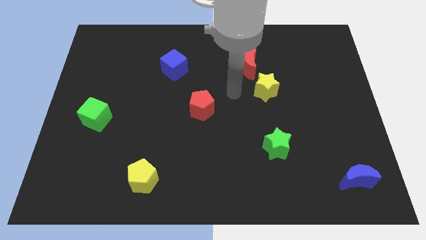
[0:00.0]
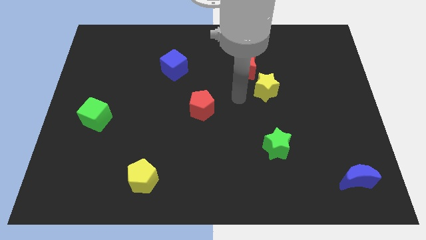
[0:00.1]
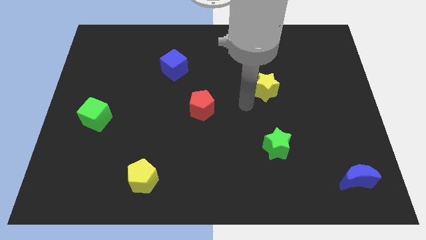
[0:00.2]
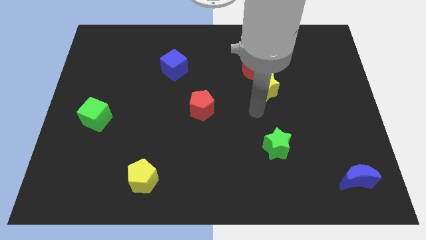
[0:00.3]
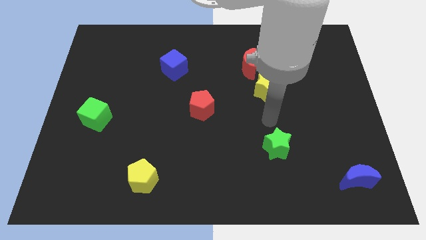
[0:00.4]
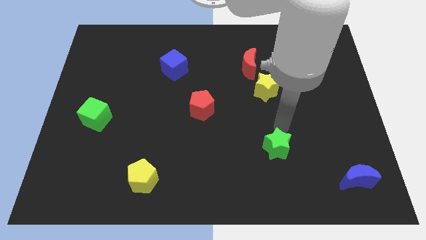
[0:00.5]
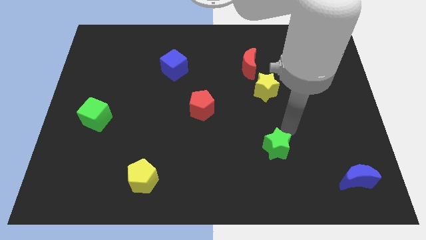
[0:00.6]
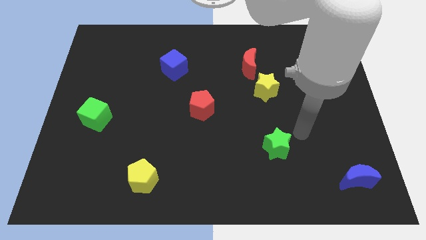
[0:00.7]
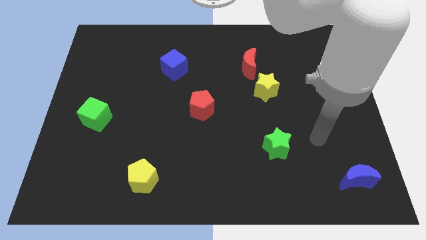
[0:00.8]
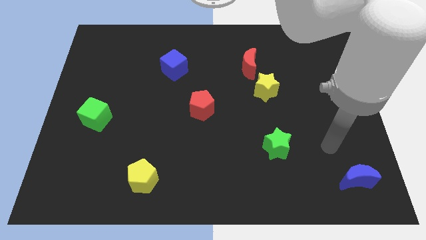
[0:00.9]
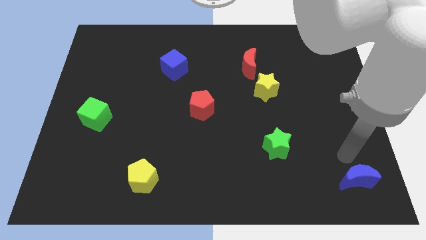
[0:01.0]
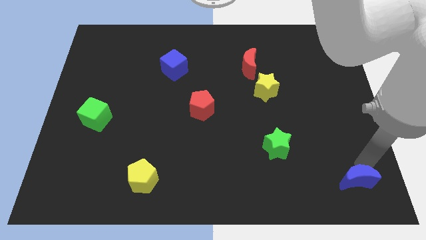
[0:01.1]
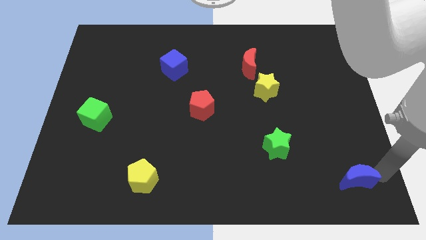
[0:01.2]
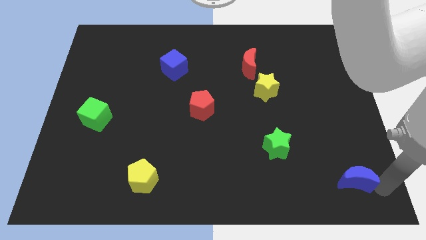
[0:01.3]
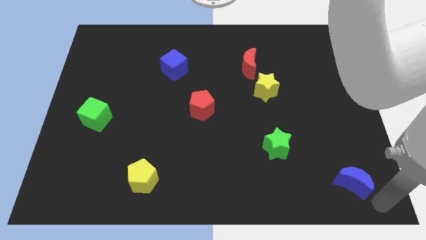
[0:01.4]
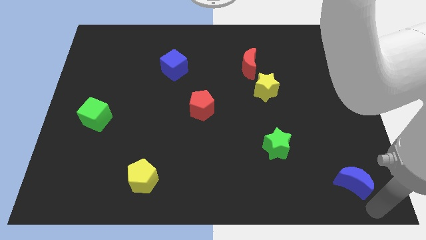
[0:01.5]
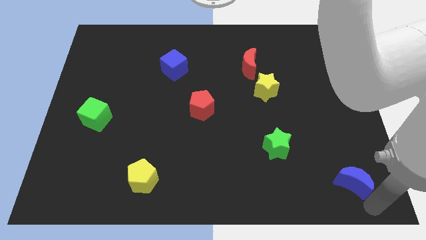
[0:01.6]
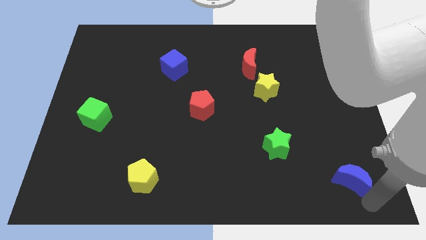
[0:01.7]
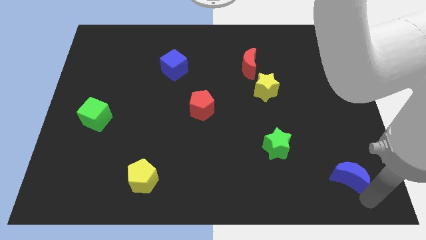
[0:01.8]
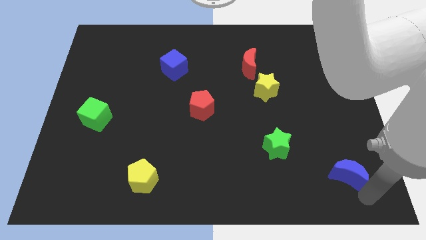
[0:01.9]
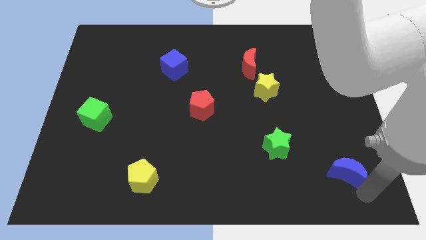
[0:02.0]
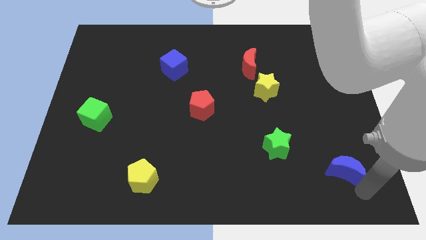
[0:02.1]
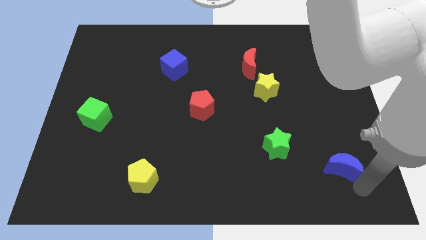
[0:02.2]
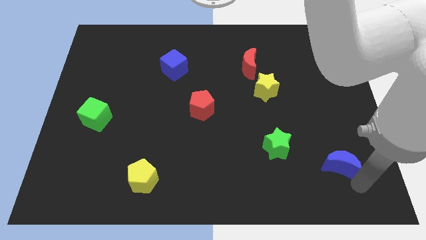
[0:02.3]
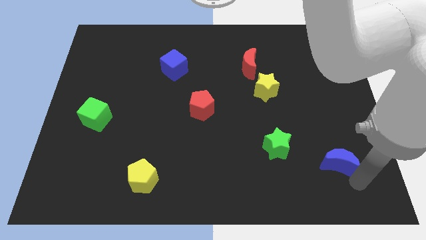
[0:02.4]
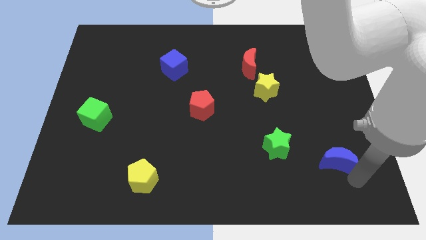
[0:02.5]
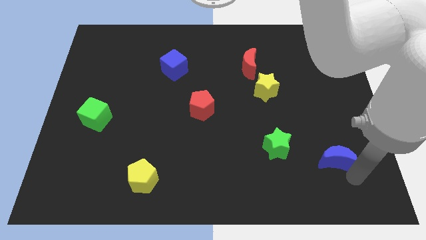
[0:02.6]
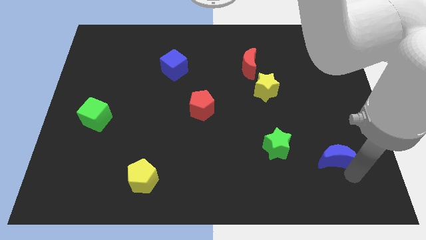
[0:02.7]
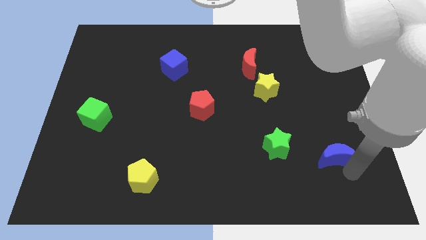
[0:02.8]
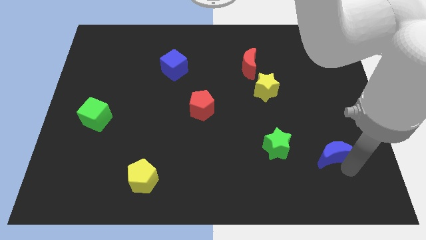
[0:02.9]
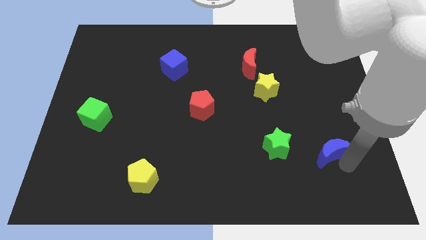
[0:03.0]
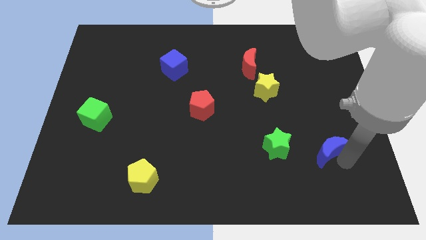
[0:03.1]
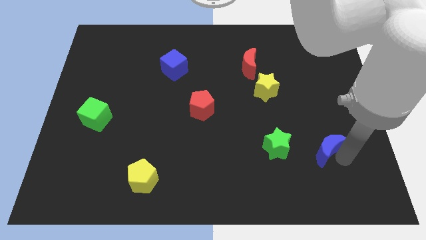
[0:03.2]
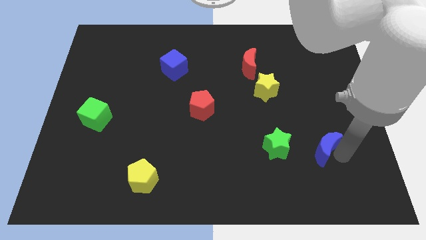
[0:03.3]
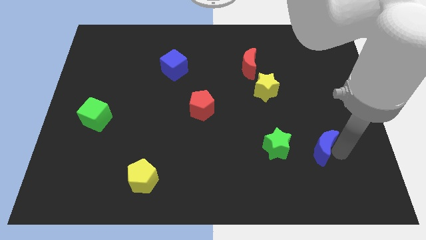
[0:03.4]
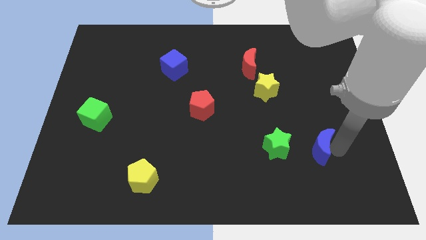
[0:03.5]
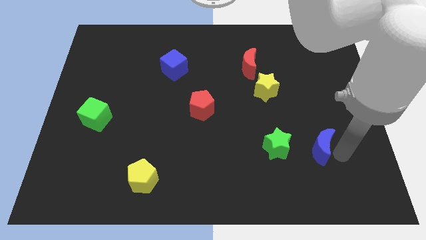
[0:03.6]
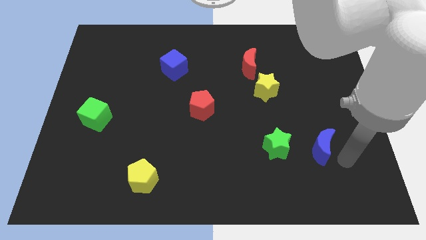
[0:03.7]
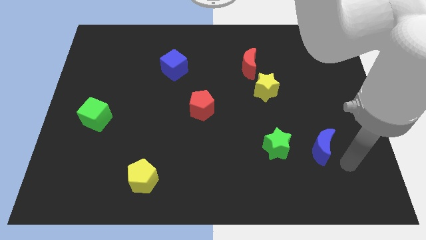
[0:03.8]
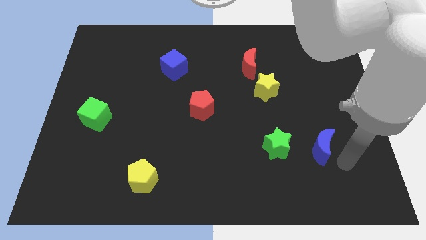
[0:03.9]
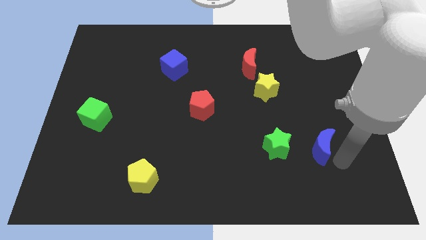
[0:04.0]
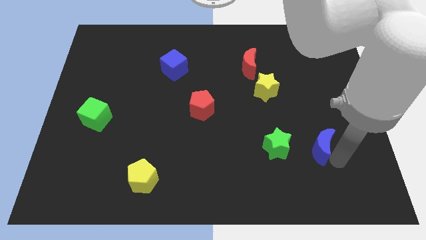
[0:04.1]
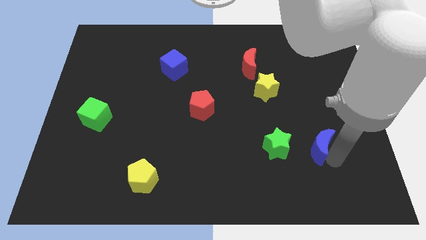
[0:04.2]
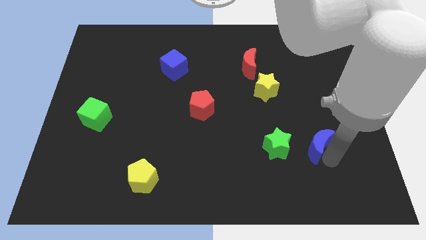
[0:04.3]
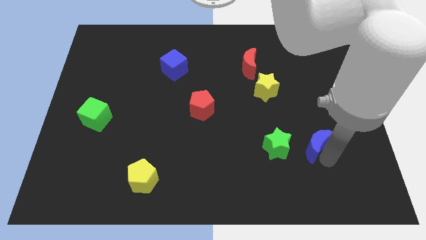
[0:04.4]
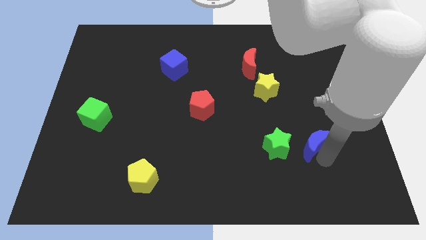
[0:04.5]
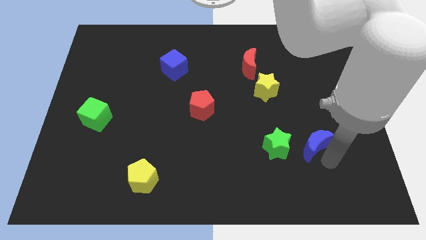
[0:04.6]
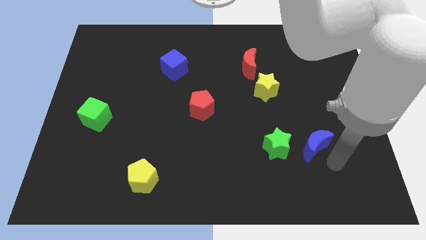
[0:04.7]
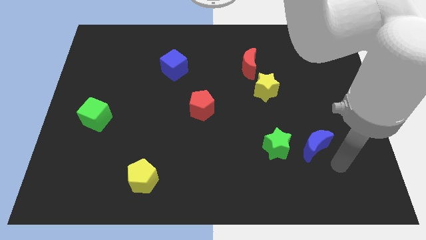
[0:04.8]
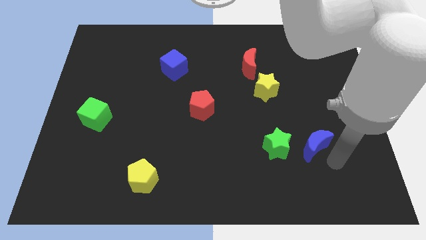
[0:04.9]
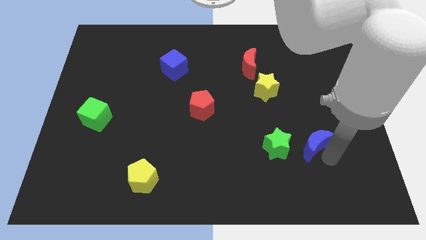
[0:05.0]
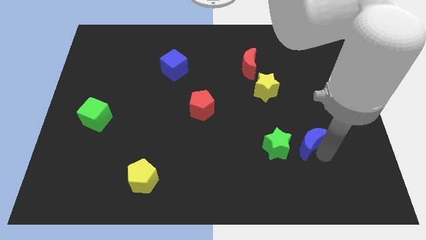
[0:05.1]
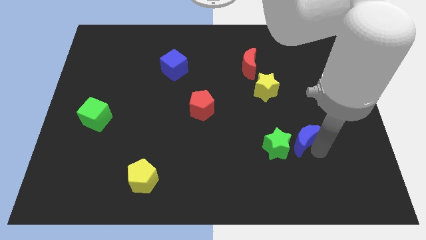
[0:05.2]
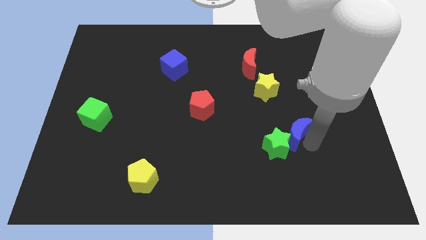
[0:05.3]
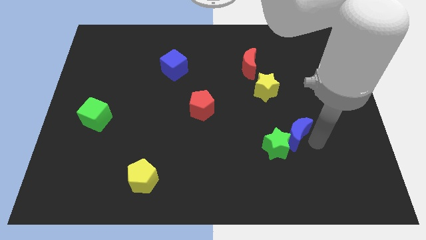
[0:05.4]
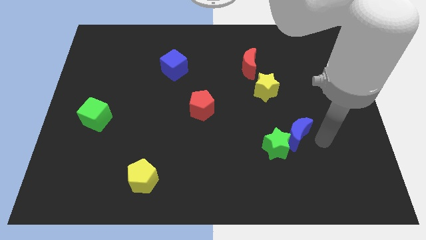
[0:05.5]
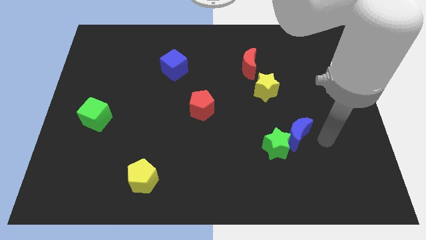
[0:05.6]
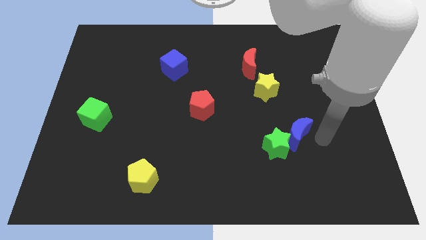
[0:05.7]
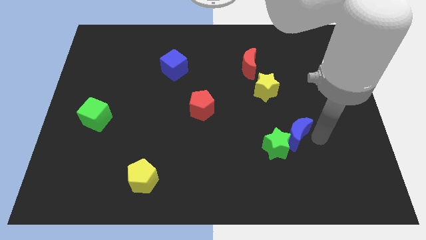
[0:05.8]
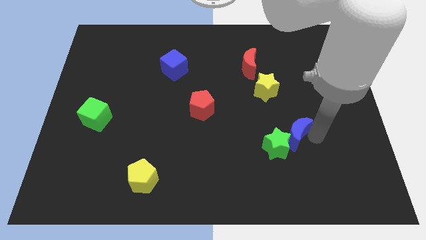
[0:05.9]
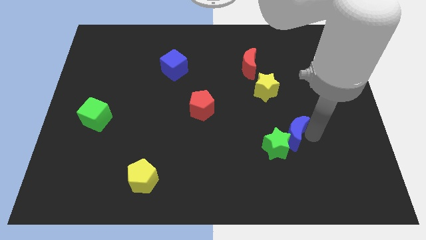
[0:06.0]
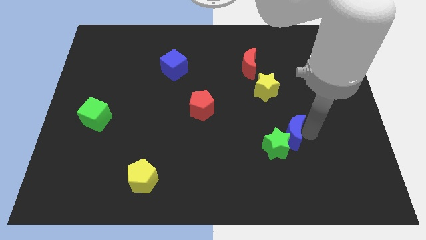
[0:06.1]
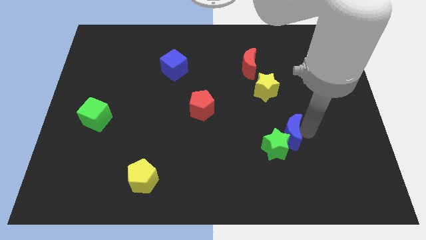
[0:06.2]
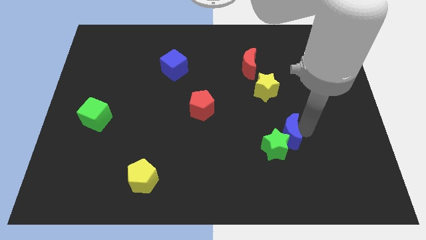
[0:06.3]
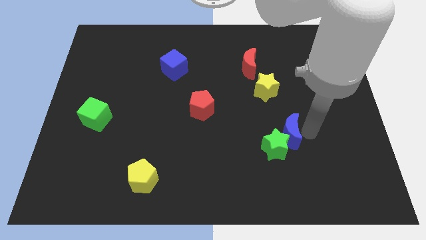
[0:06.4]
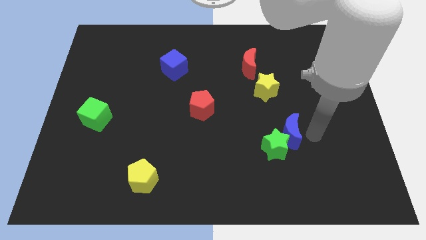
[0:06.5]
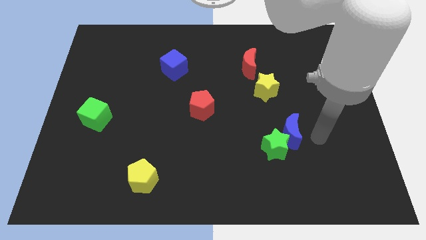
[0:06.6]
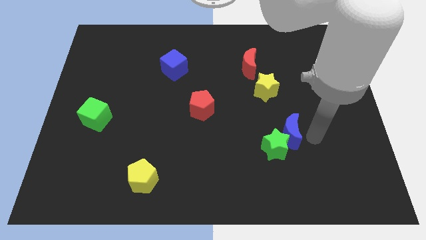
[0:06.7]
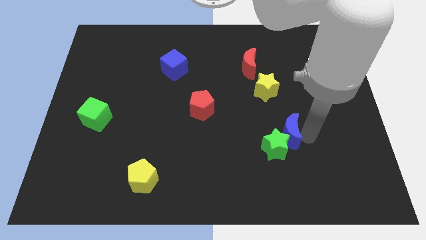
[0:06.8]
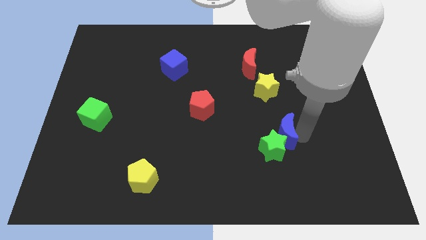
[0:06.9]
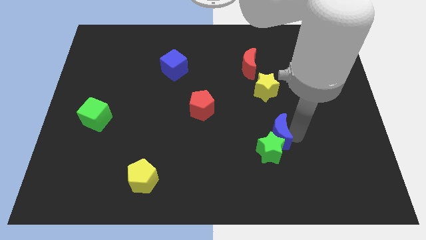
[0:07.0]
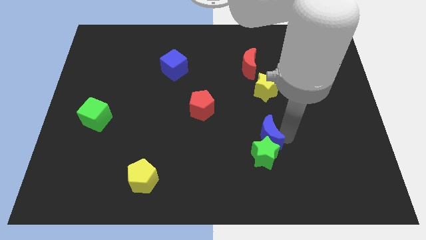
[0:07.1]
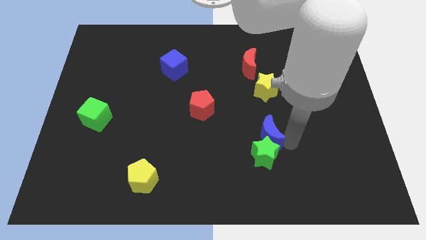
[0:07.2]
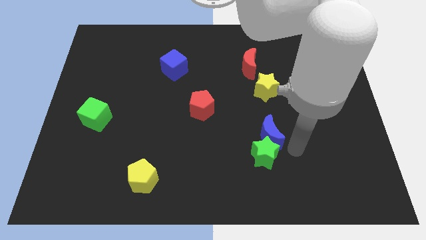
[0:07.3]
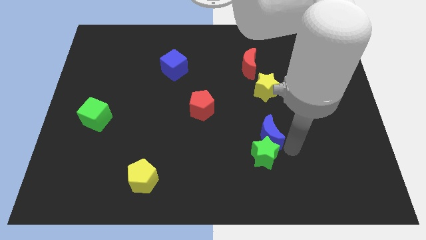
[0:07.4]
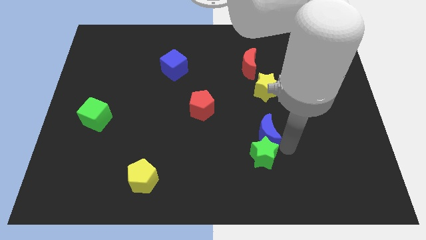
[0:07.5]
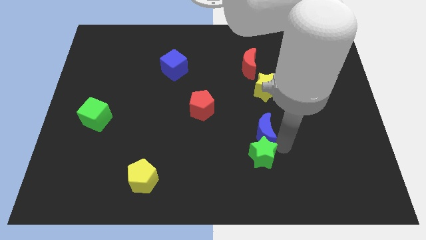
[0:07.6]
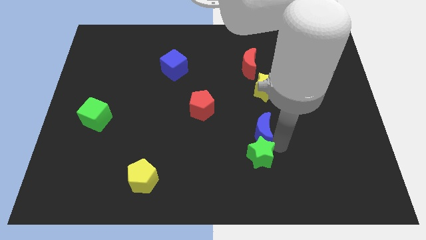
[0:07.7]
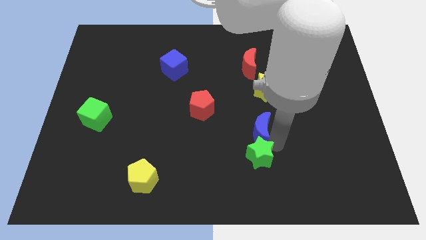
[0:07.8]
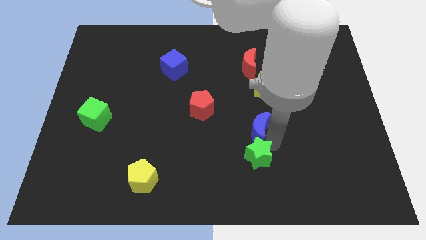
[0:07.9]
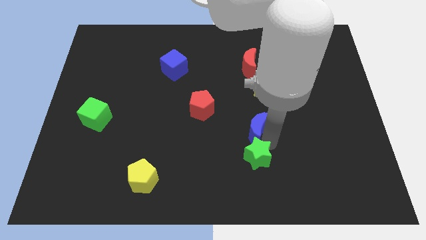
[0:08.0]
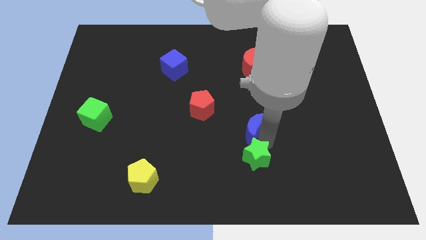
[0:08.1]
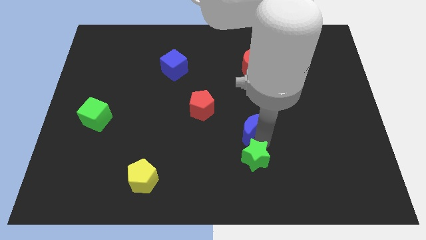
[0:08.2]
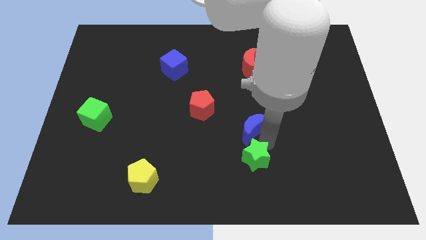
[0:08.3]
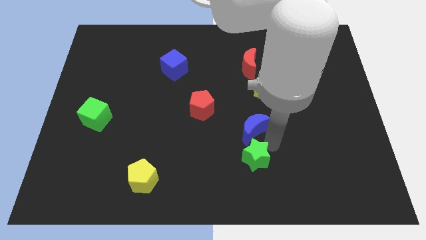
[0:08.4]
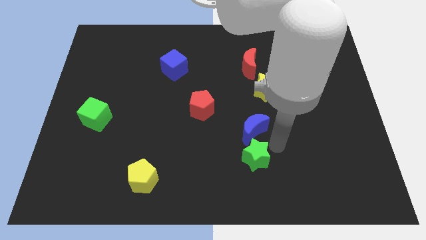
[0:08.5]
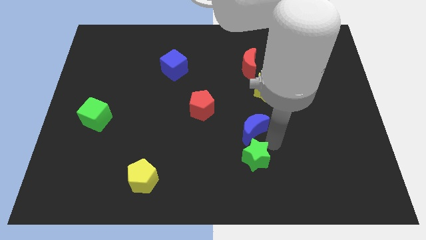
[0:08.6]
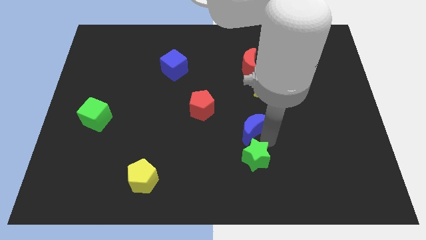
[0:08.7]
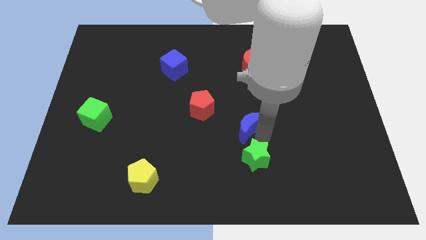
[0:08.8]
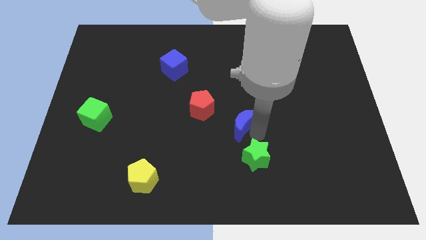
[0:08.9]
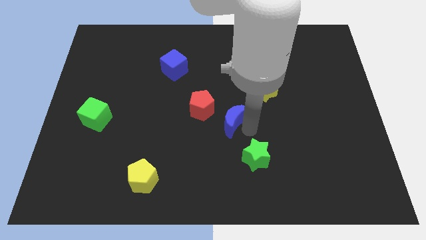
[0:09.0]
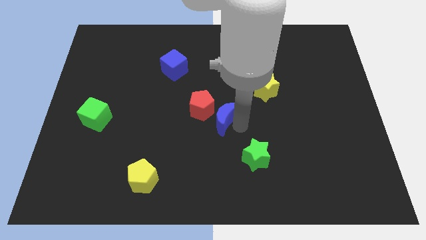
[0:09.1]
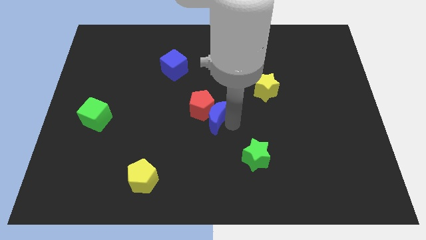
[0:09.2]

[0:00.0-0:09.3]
move the blue moon next to the red pentagon
